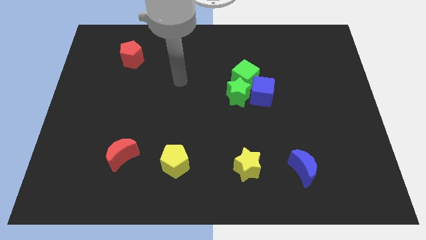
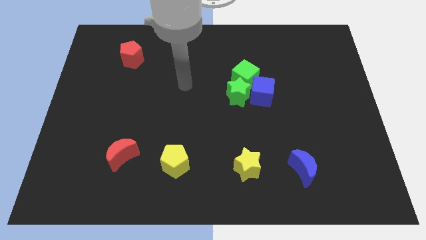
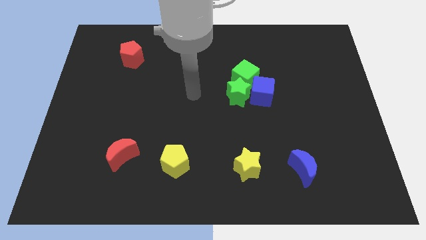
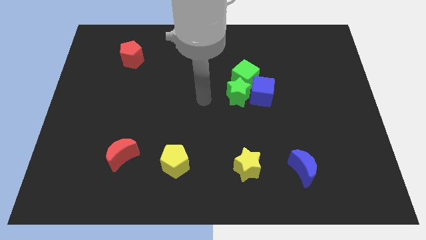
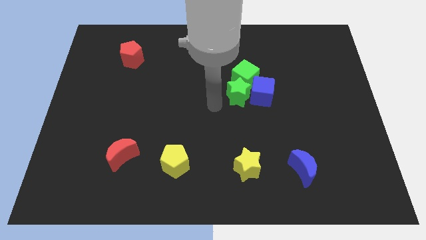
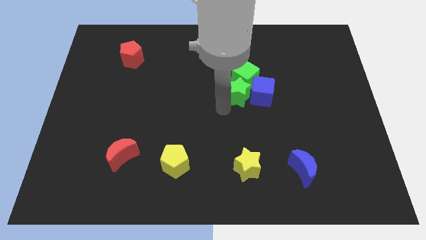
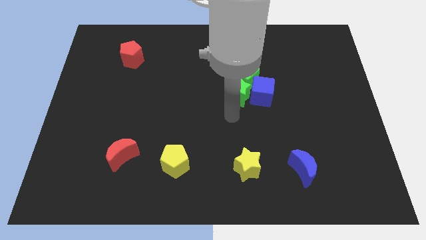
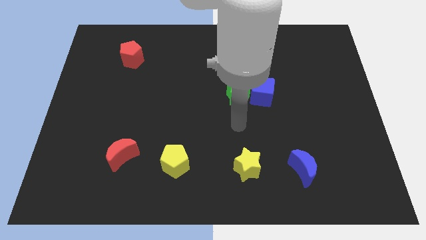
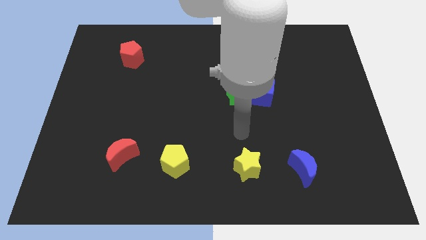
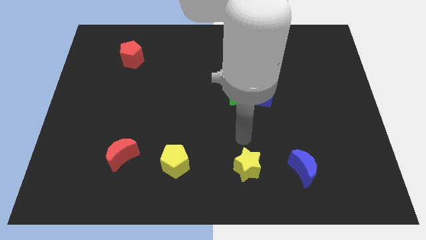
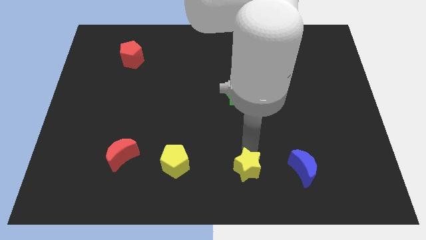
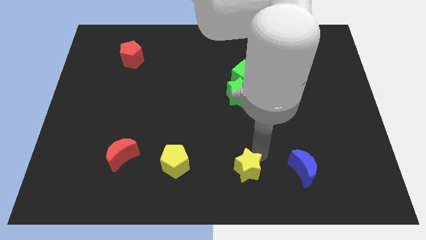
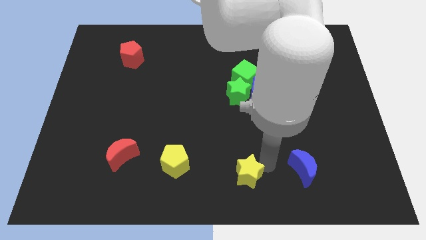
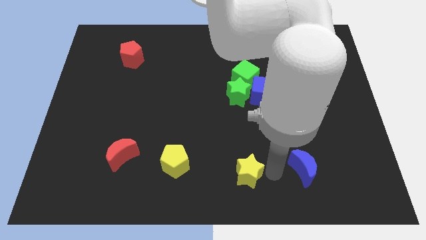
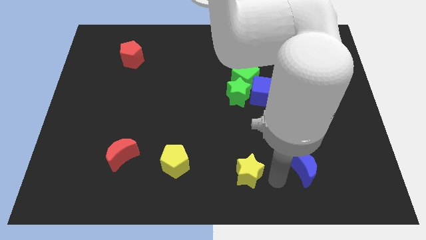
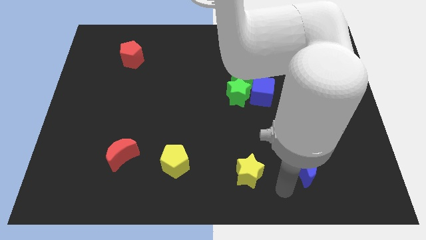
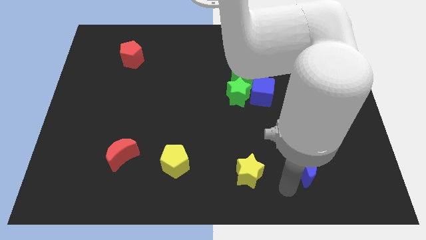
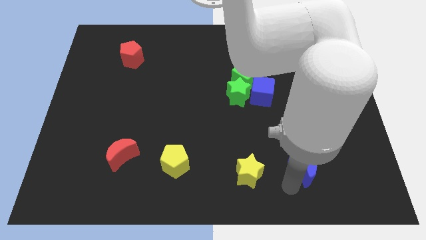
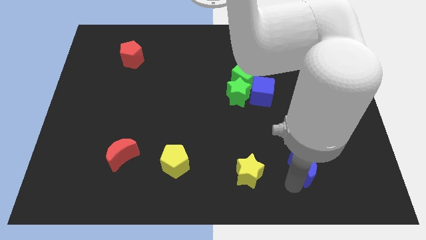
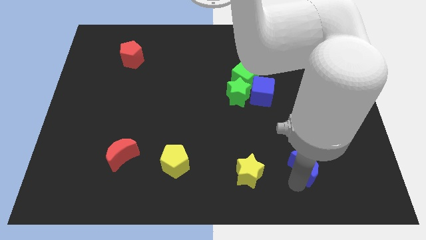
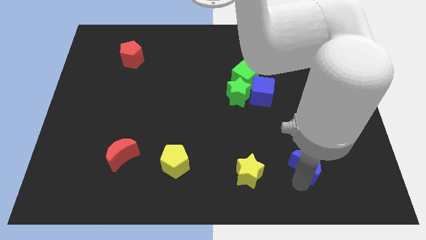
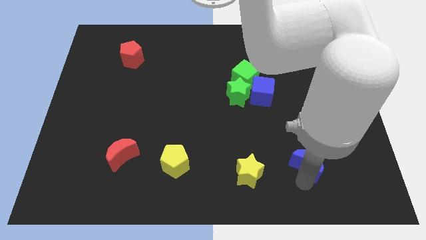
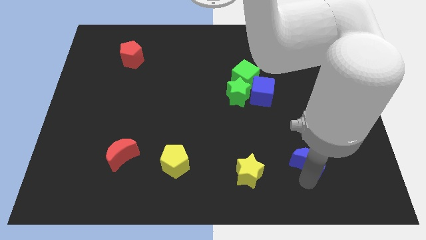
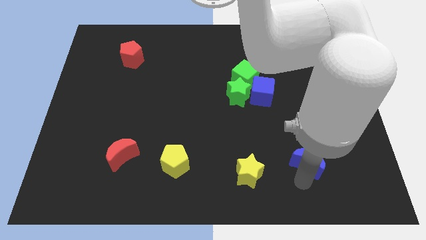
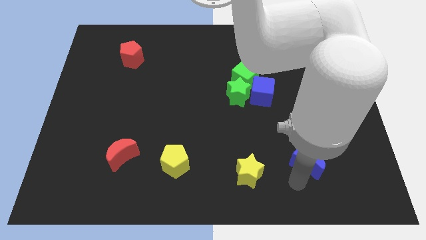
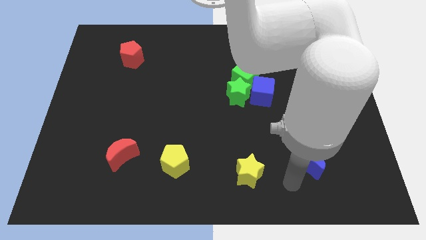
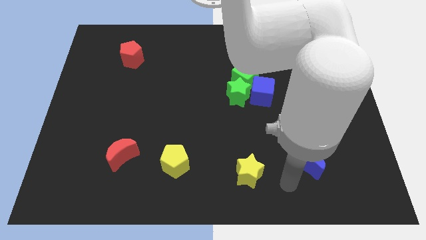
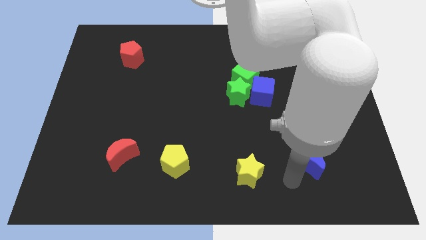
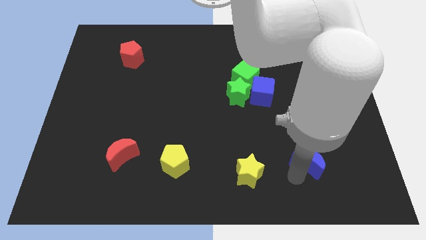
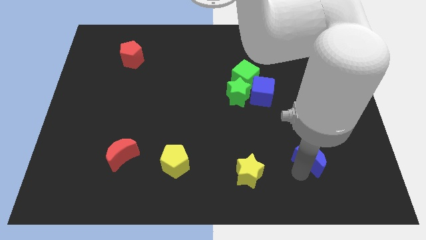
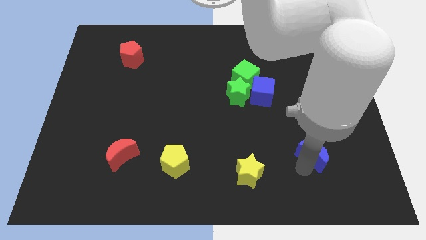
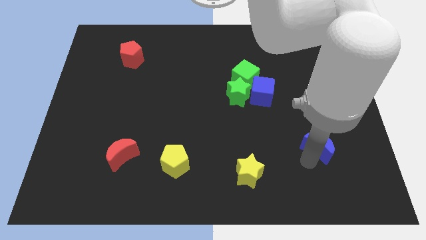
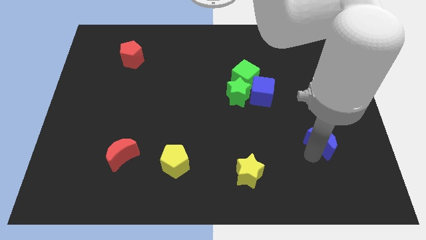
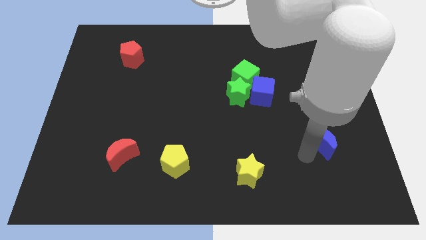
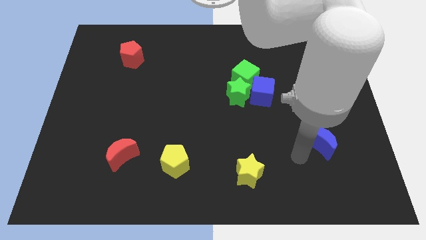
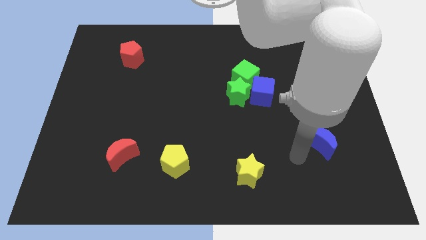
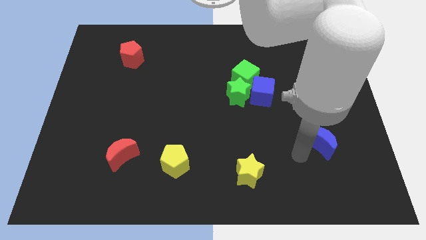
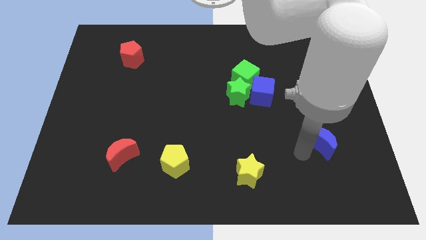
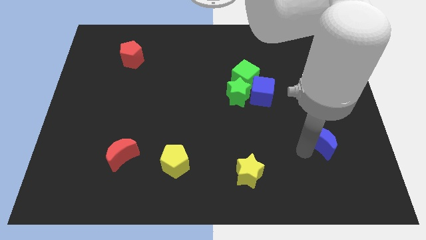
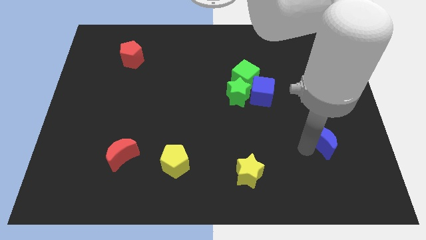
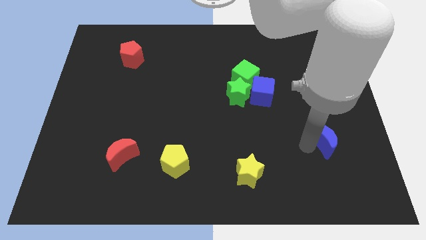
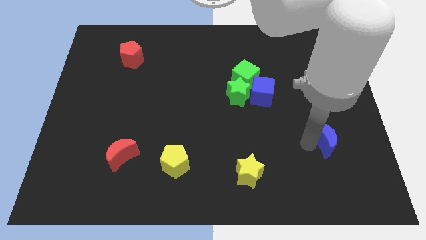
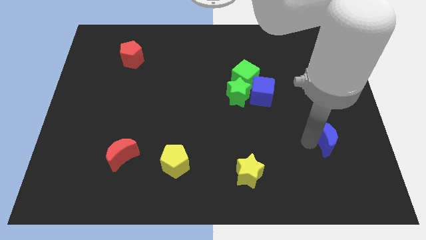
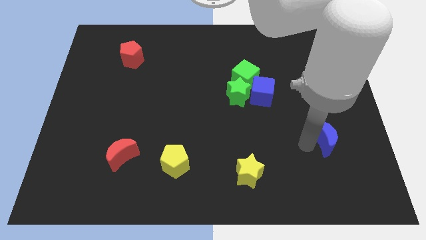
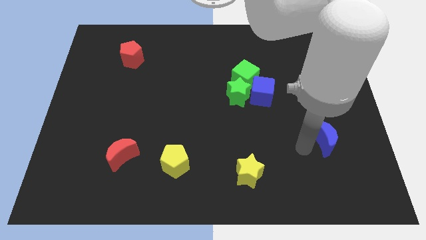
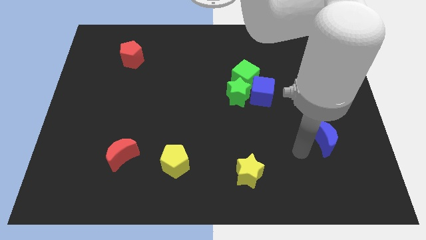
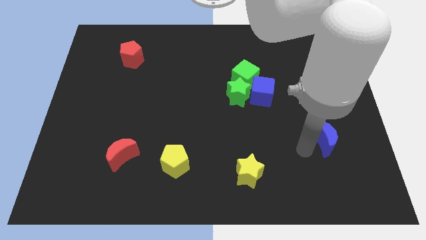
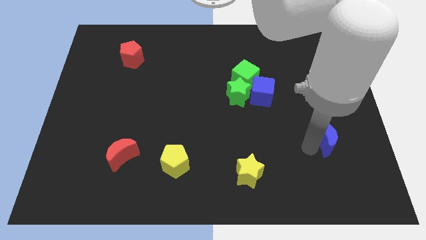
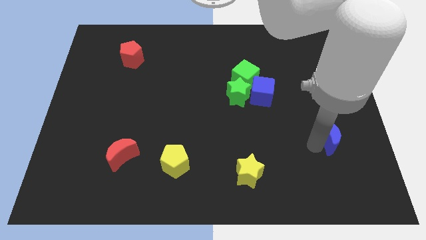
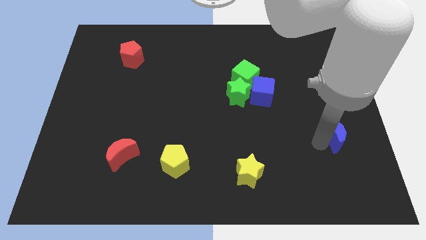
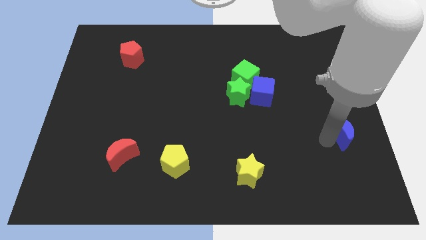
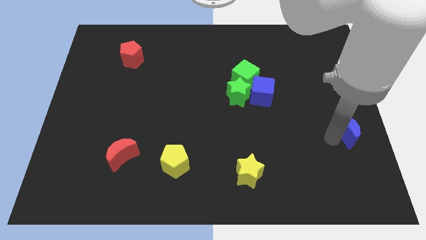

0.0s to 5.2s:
slide the blue moon to the right side of the board
